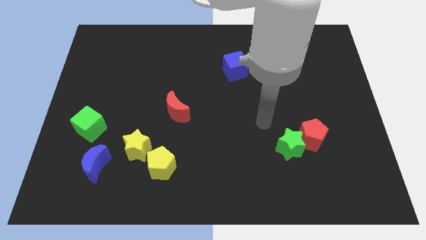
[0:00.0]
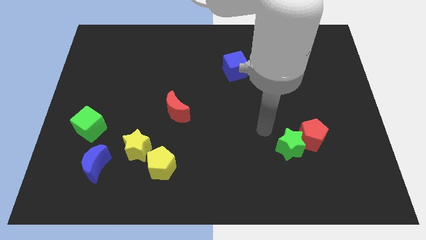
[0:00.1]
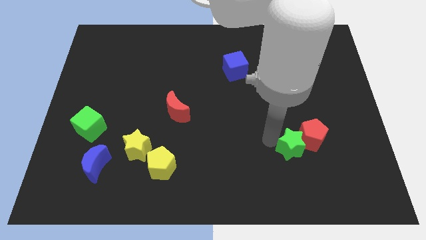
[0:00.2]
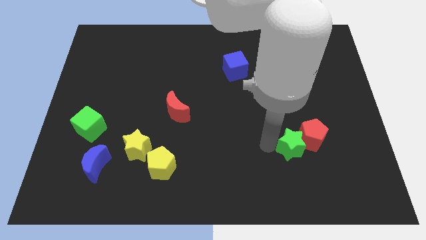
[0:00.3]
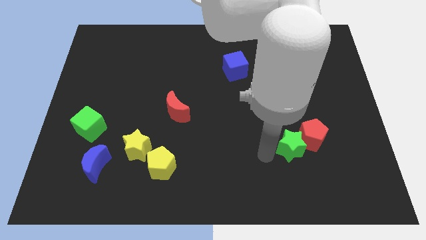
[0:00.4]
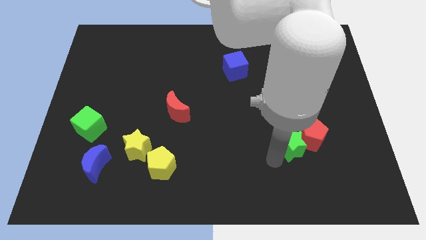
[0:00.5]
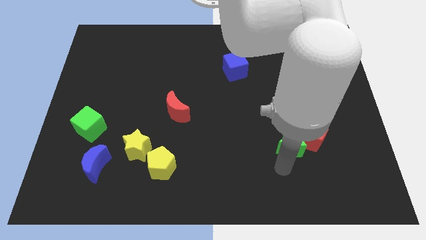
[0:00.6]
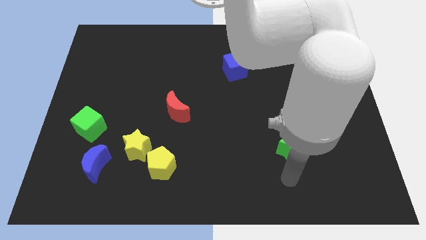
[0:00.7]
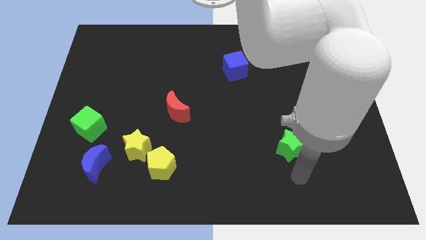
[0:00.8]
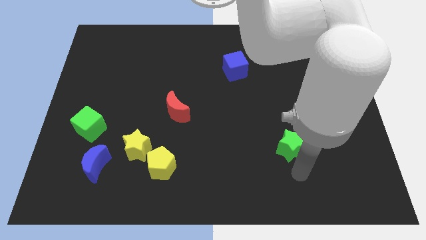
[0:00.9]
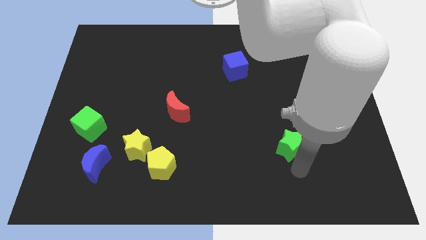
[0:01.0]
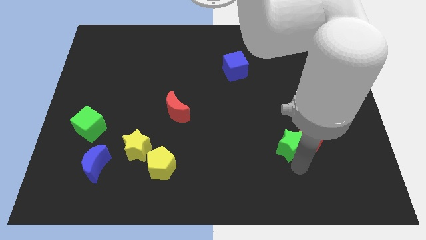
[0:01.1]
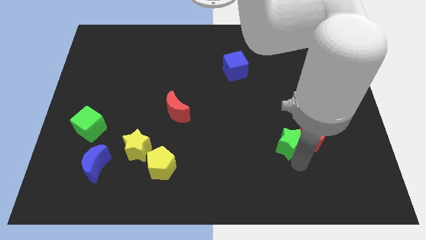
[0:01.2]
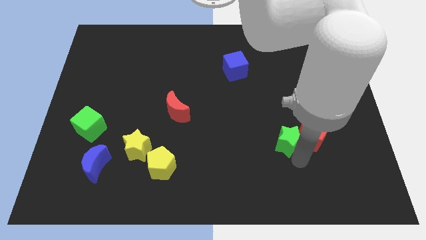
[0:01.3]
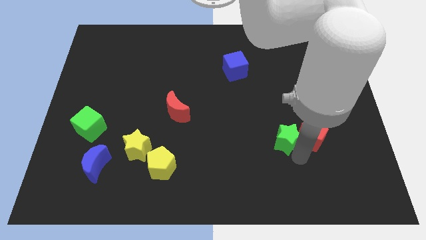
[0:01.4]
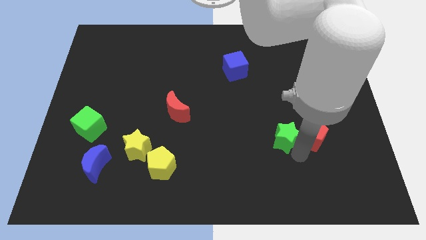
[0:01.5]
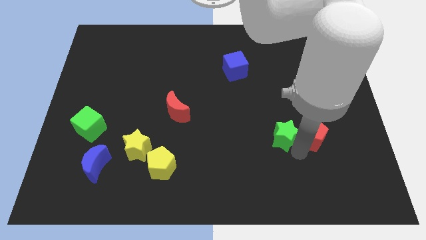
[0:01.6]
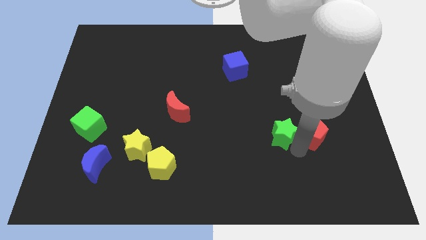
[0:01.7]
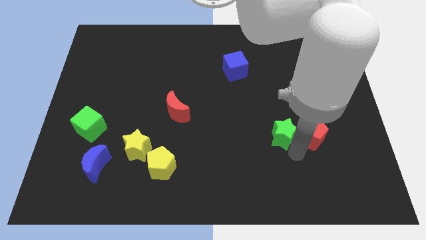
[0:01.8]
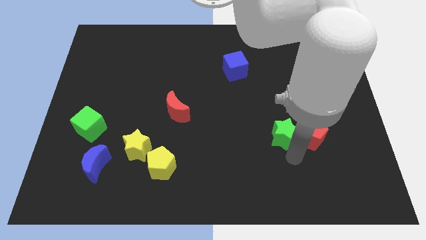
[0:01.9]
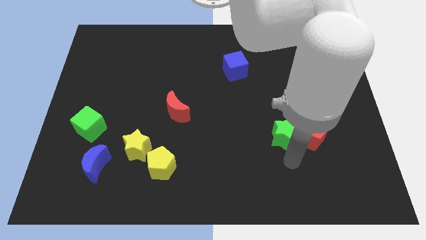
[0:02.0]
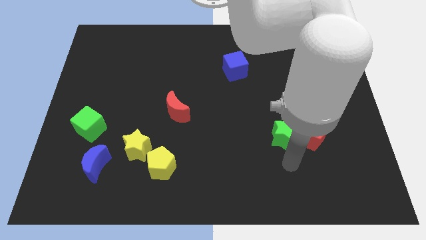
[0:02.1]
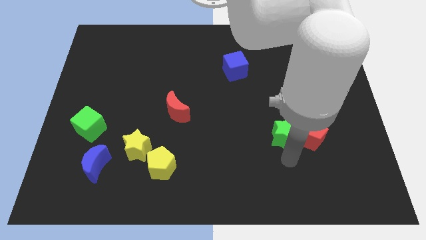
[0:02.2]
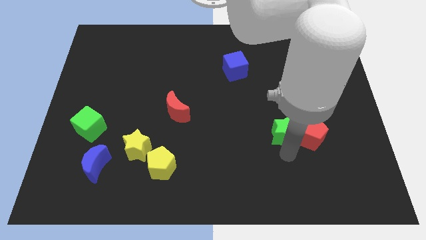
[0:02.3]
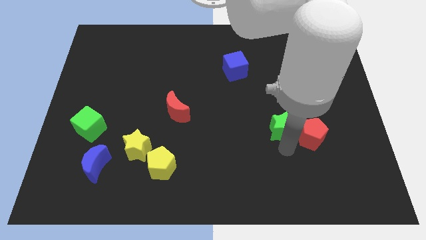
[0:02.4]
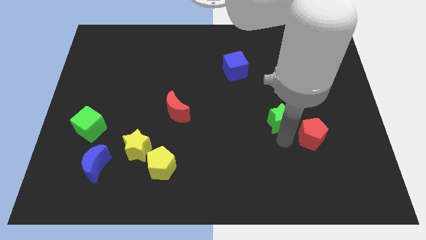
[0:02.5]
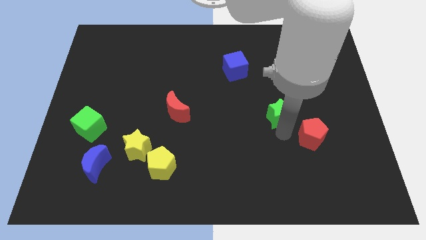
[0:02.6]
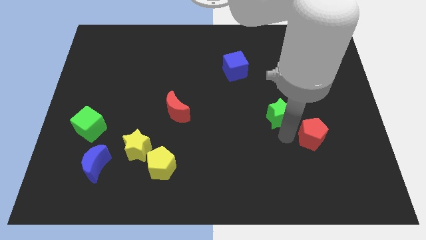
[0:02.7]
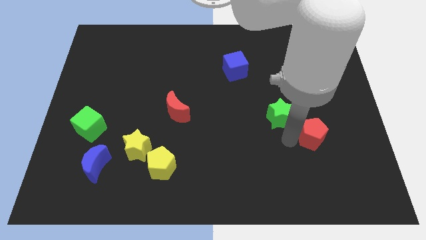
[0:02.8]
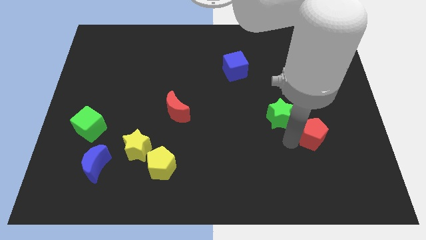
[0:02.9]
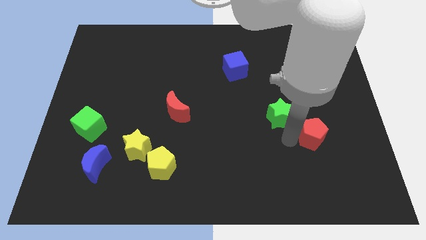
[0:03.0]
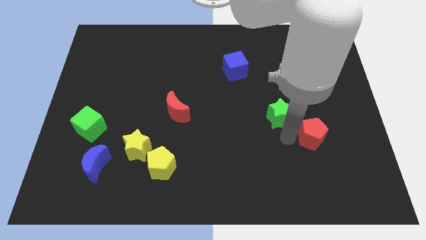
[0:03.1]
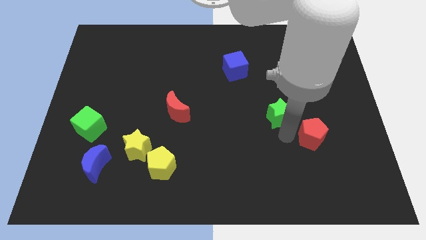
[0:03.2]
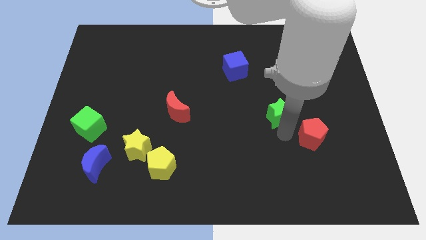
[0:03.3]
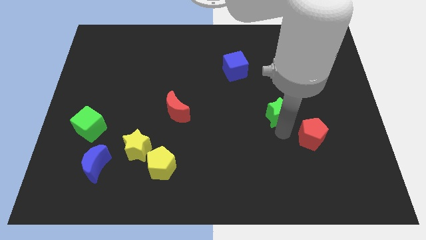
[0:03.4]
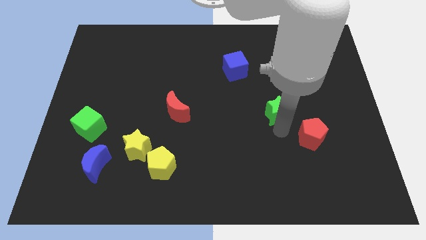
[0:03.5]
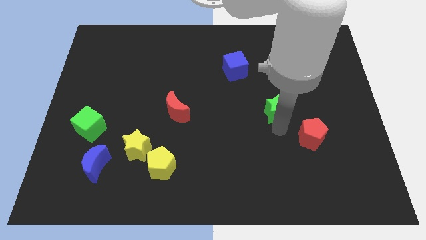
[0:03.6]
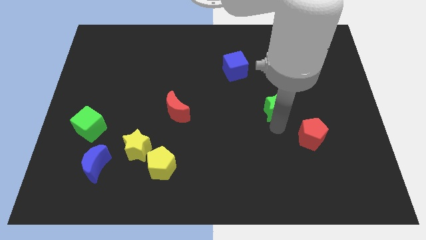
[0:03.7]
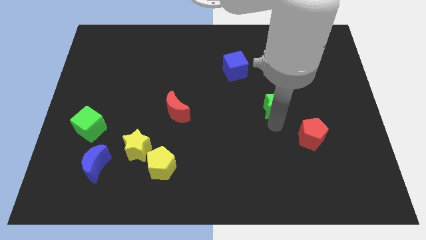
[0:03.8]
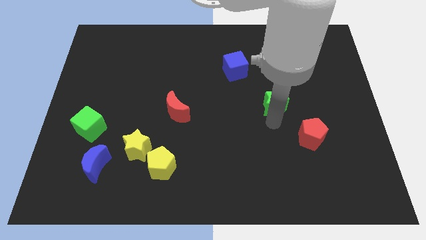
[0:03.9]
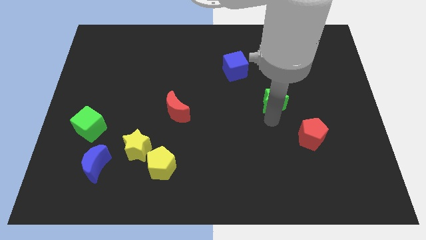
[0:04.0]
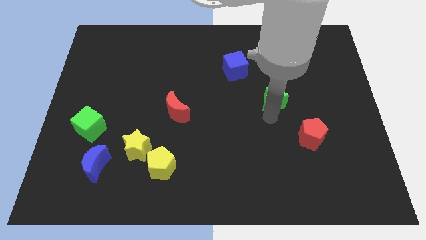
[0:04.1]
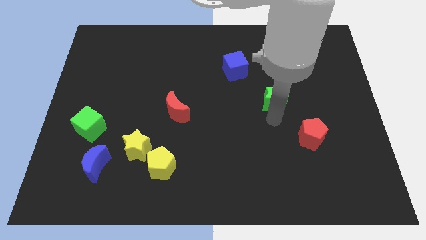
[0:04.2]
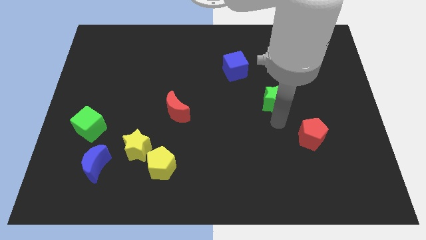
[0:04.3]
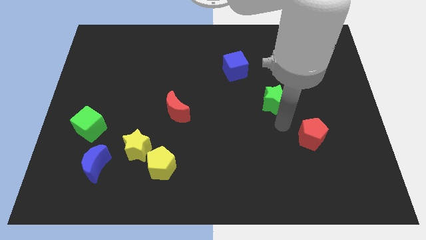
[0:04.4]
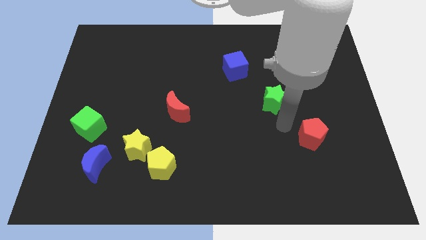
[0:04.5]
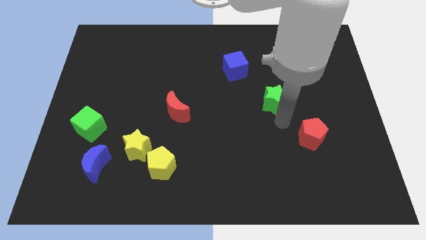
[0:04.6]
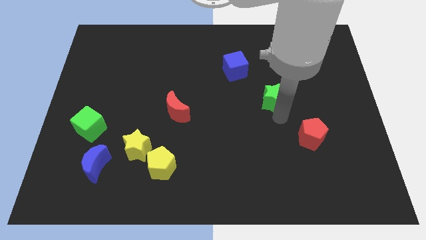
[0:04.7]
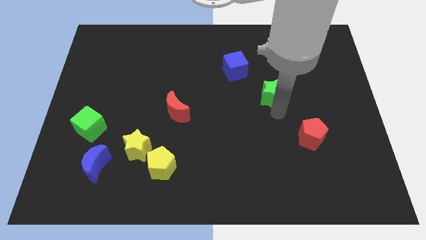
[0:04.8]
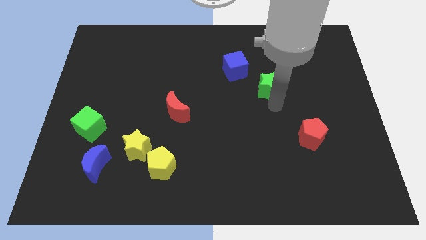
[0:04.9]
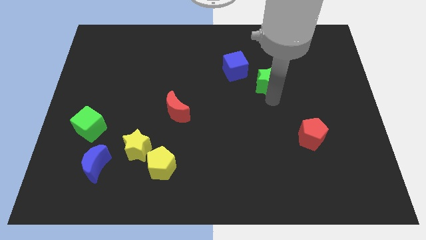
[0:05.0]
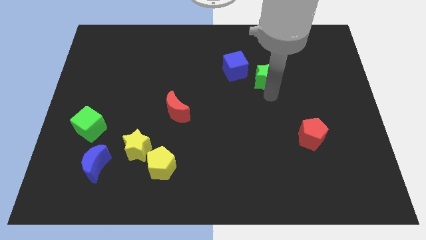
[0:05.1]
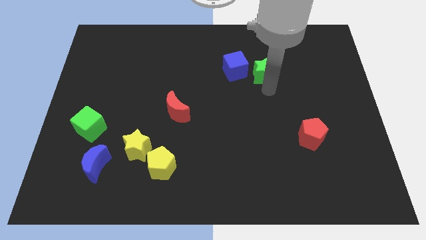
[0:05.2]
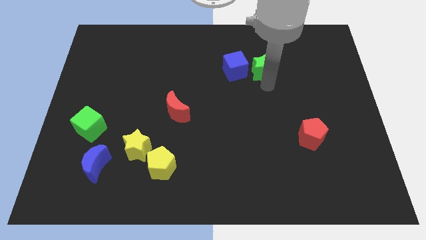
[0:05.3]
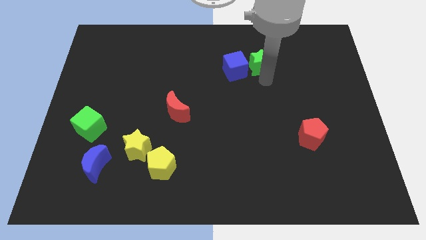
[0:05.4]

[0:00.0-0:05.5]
move the green star diagonally up and to the right of the blue cube

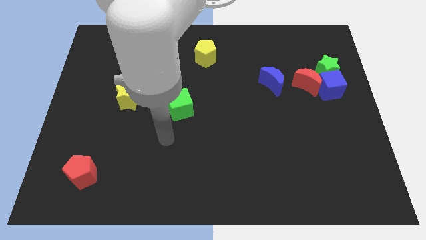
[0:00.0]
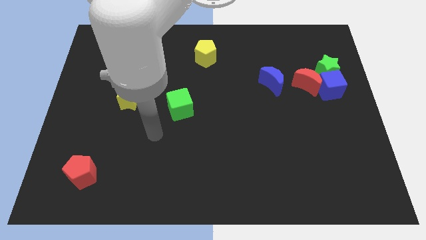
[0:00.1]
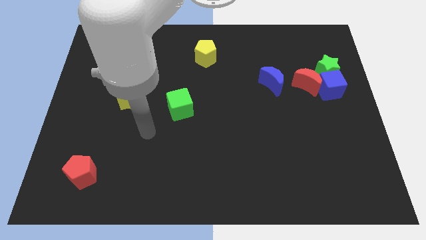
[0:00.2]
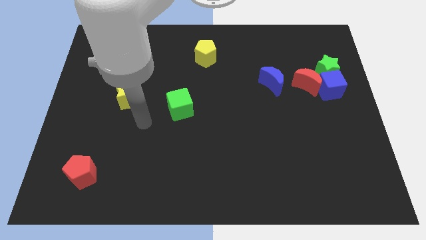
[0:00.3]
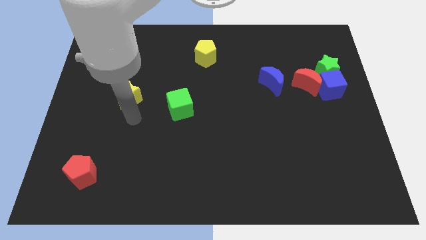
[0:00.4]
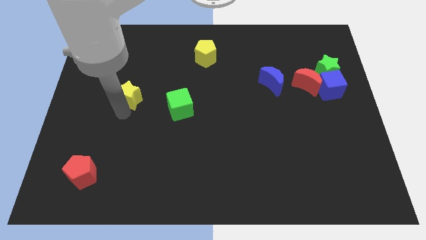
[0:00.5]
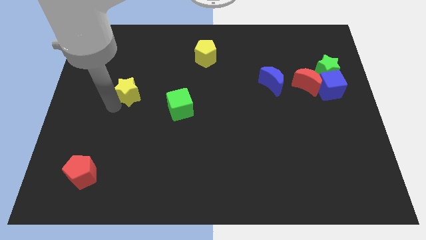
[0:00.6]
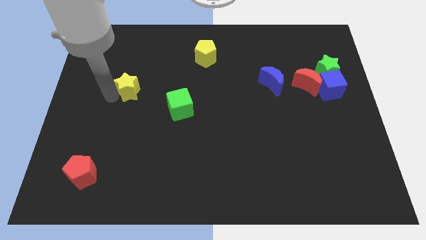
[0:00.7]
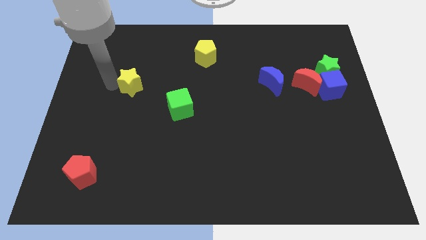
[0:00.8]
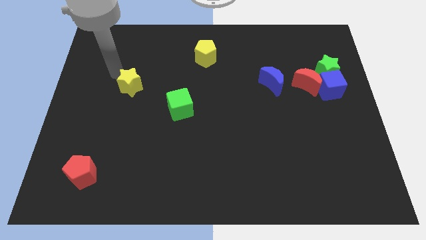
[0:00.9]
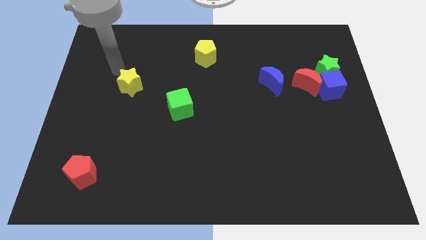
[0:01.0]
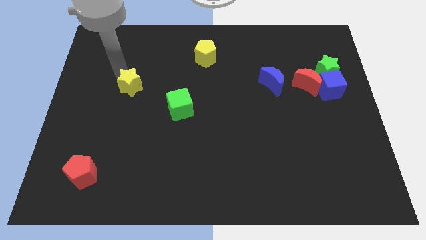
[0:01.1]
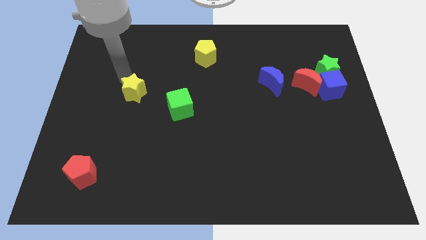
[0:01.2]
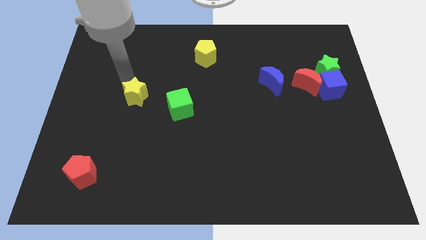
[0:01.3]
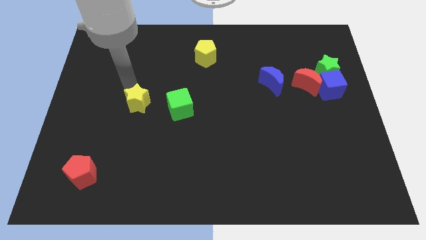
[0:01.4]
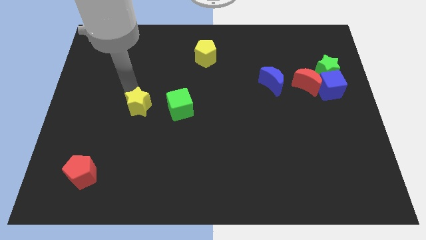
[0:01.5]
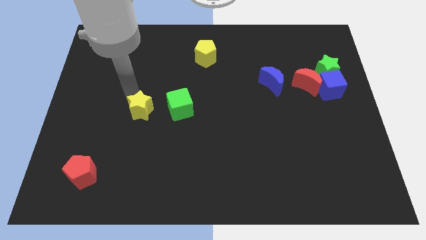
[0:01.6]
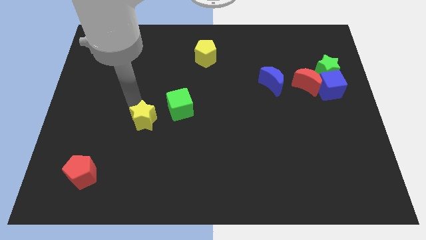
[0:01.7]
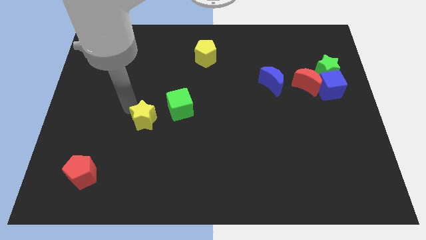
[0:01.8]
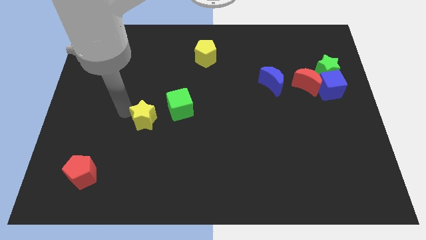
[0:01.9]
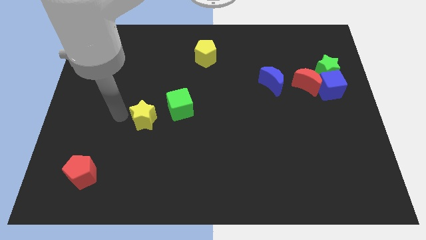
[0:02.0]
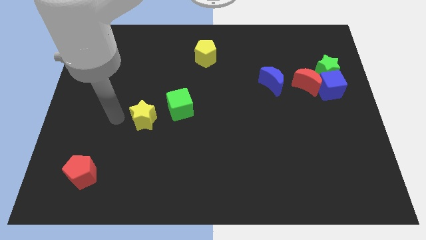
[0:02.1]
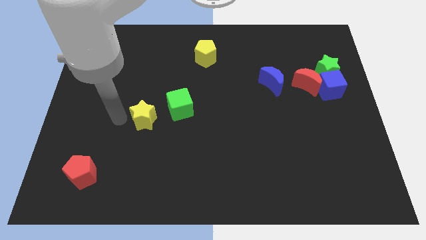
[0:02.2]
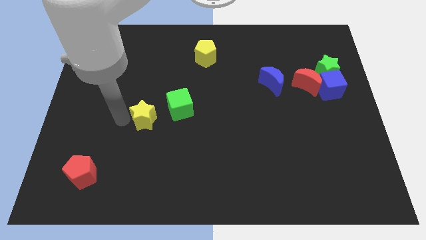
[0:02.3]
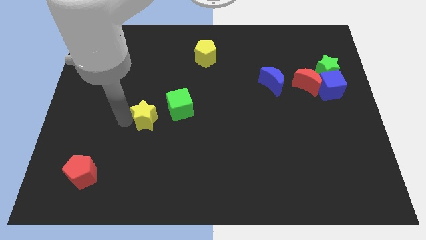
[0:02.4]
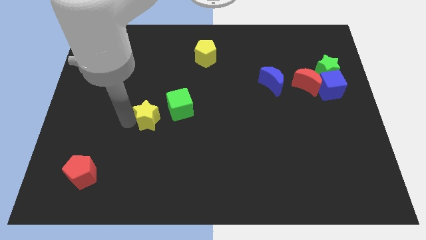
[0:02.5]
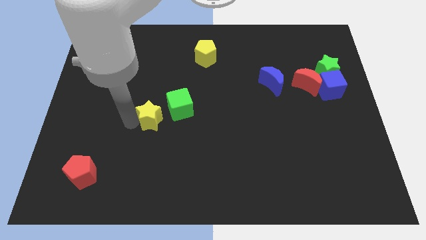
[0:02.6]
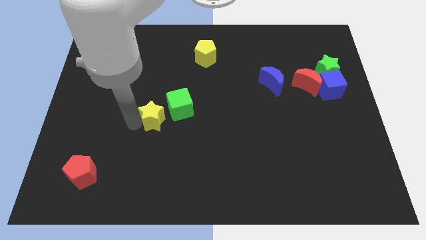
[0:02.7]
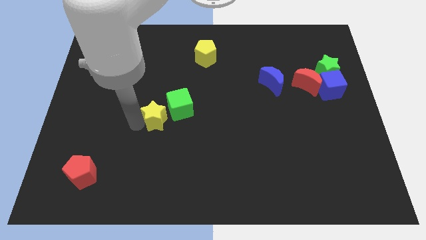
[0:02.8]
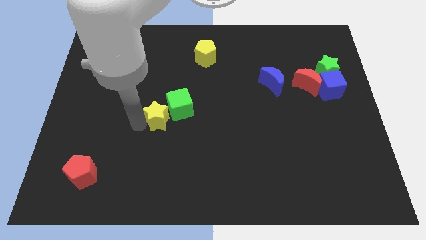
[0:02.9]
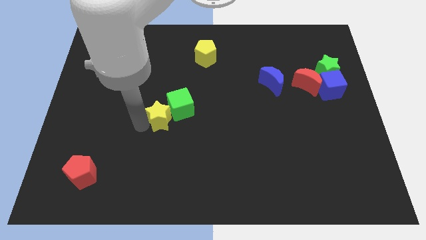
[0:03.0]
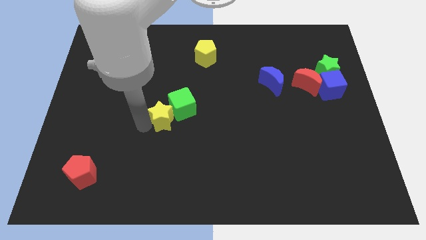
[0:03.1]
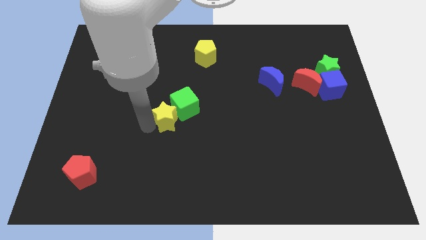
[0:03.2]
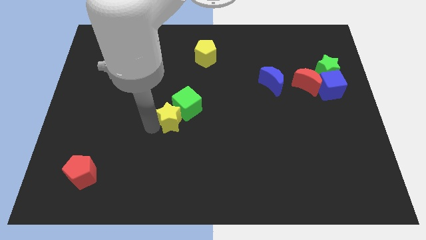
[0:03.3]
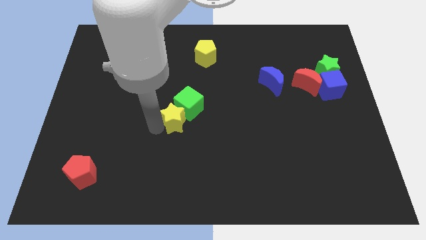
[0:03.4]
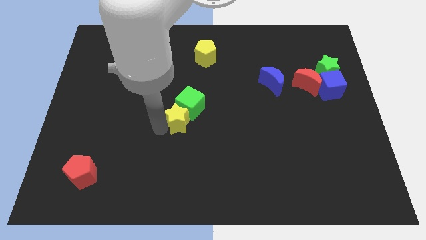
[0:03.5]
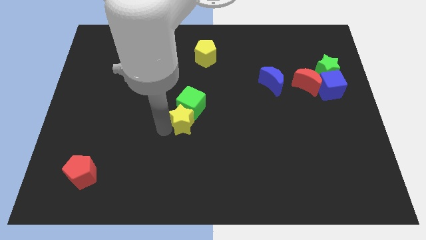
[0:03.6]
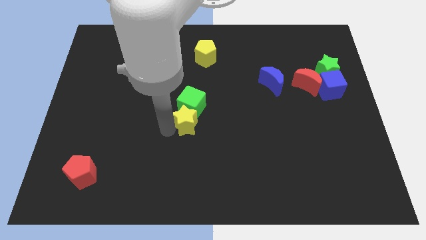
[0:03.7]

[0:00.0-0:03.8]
slide the yellow star to the bottom right side of the green cube
